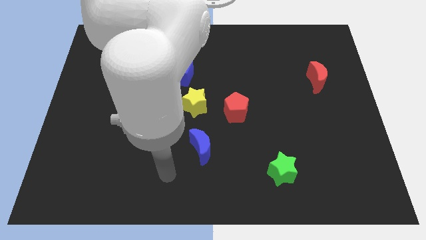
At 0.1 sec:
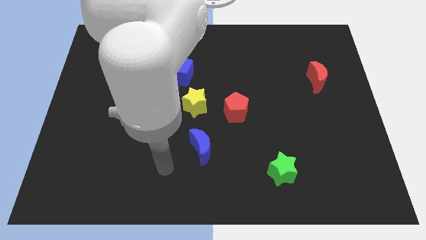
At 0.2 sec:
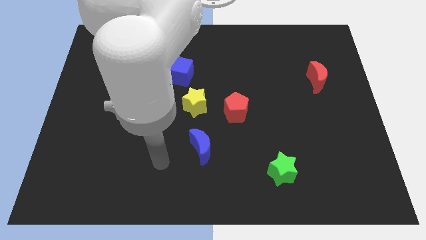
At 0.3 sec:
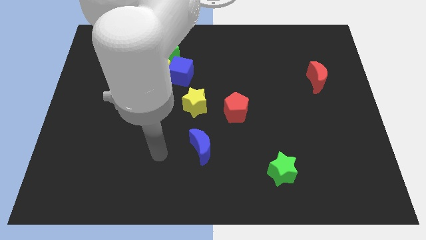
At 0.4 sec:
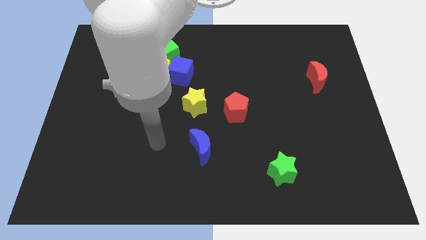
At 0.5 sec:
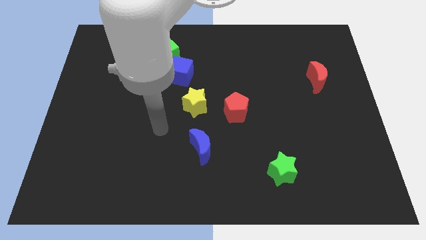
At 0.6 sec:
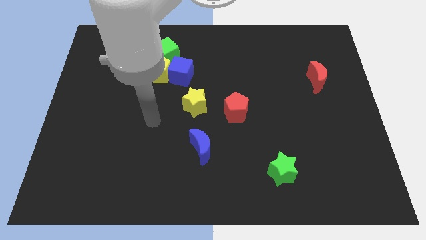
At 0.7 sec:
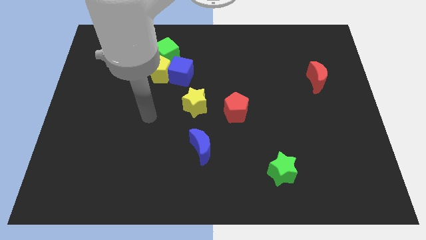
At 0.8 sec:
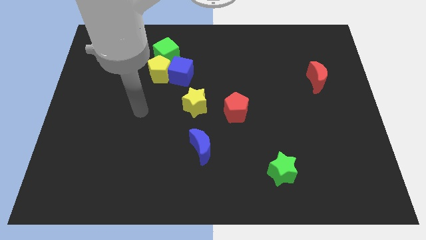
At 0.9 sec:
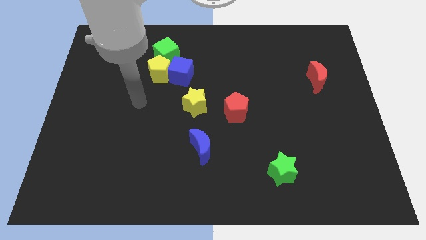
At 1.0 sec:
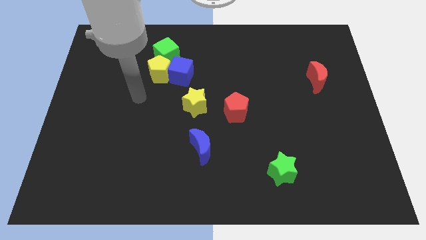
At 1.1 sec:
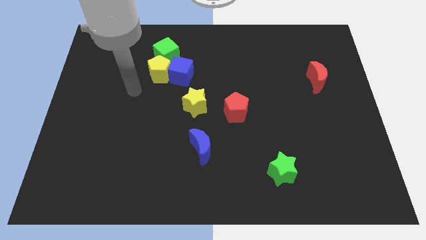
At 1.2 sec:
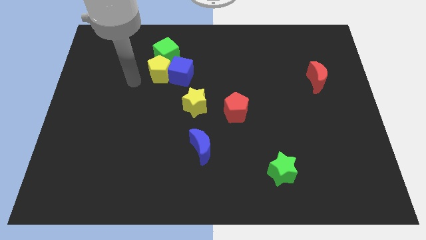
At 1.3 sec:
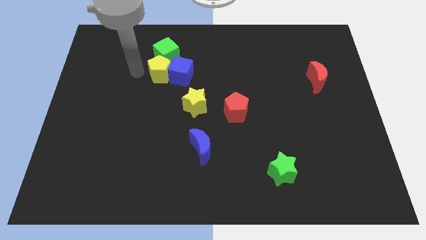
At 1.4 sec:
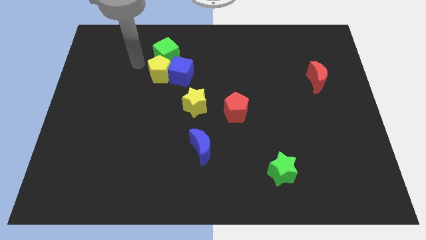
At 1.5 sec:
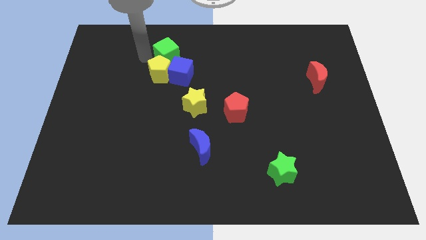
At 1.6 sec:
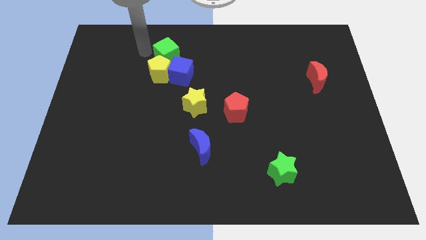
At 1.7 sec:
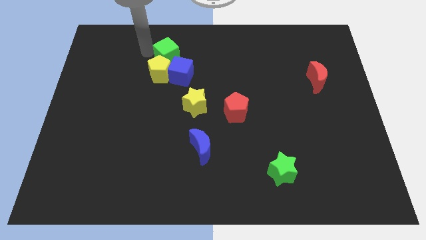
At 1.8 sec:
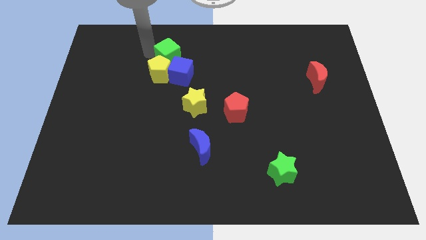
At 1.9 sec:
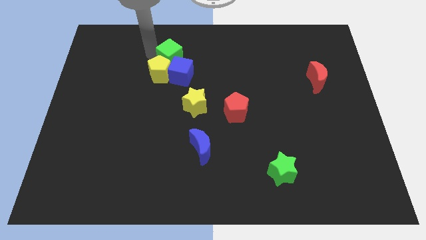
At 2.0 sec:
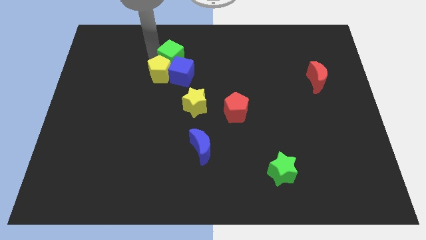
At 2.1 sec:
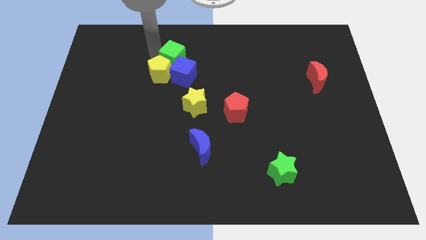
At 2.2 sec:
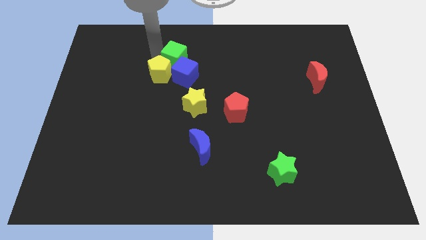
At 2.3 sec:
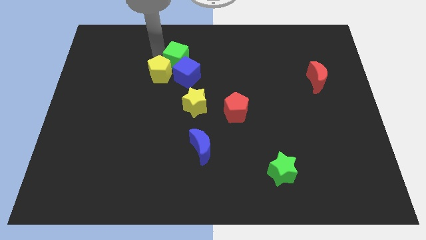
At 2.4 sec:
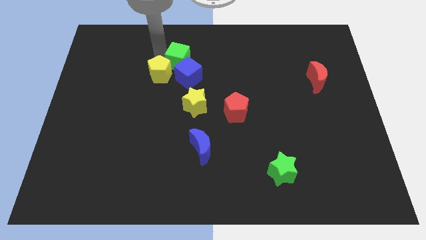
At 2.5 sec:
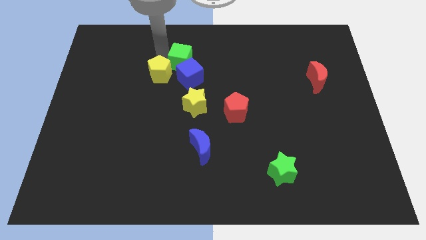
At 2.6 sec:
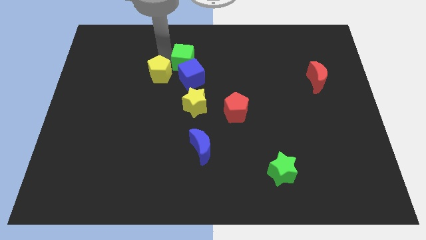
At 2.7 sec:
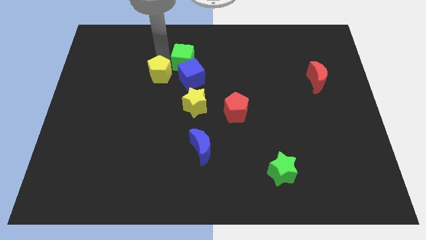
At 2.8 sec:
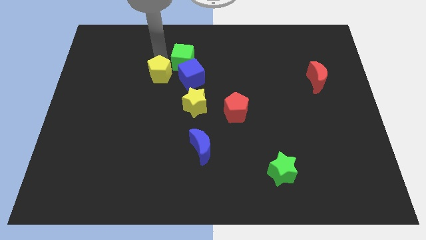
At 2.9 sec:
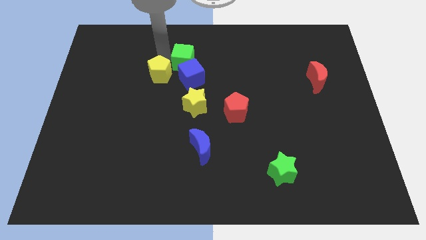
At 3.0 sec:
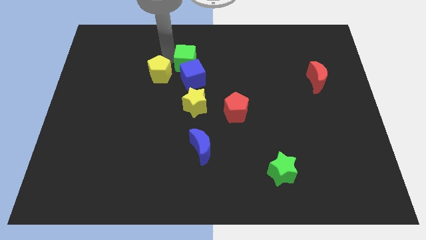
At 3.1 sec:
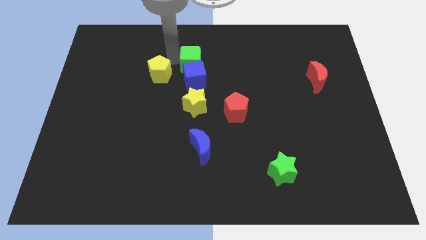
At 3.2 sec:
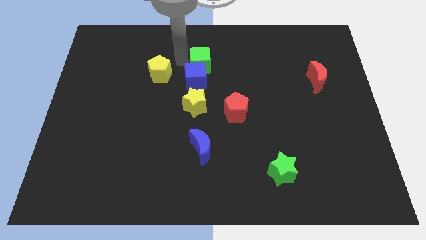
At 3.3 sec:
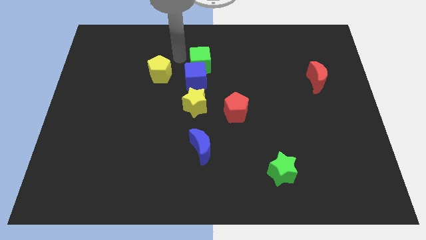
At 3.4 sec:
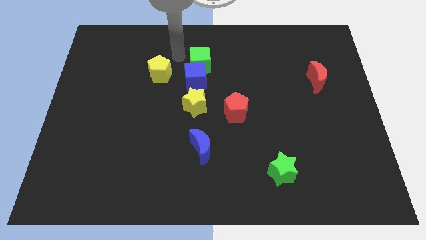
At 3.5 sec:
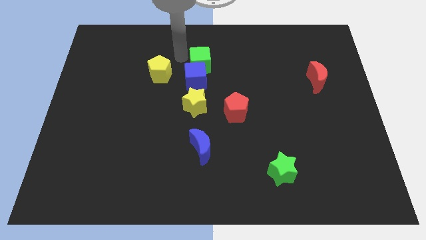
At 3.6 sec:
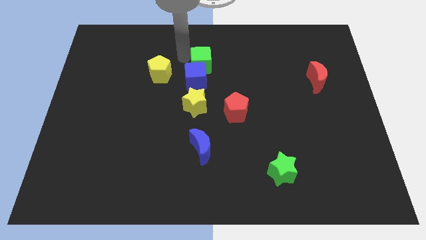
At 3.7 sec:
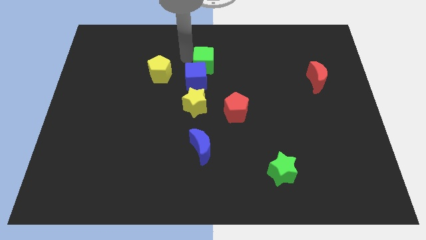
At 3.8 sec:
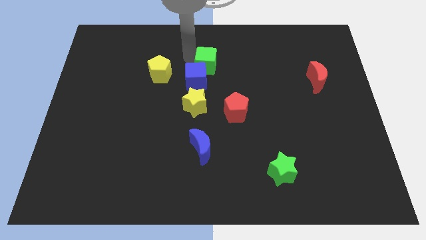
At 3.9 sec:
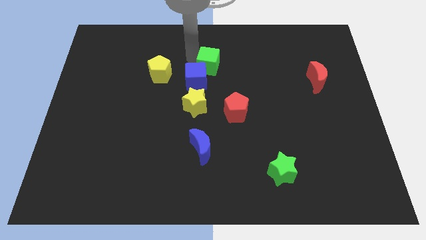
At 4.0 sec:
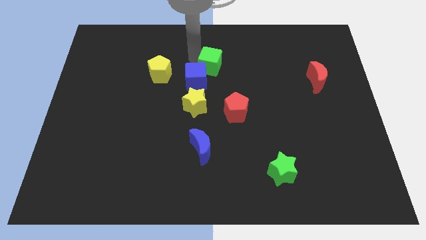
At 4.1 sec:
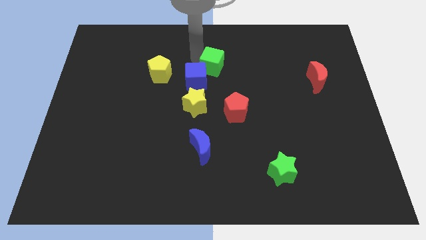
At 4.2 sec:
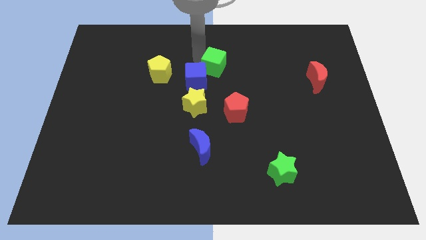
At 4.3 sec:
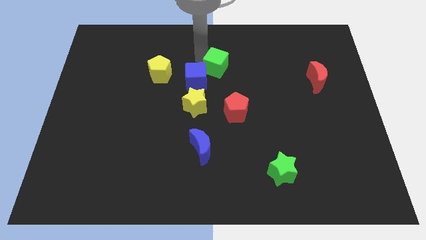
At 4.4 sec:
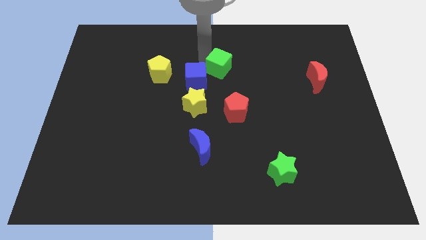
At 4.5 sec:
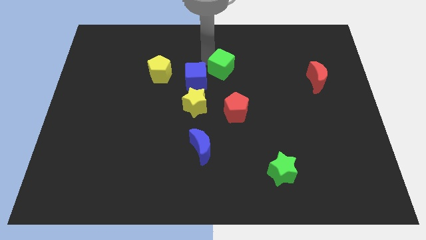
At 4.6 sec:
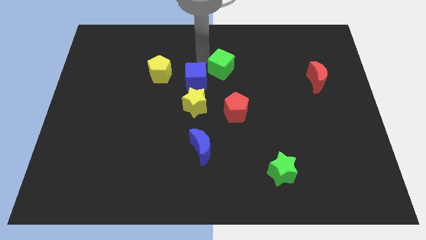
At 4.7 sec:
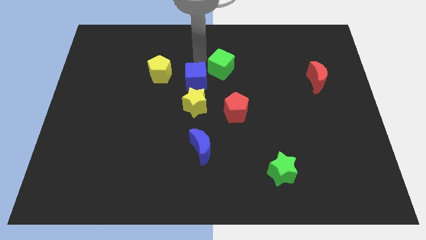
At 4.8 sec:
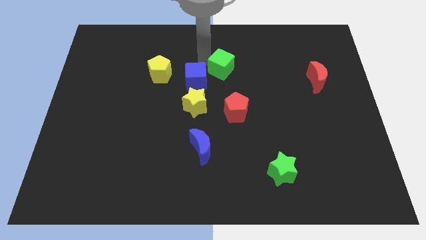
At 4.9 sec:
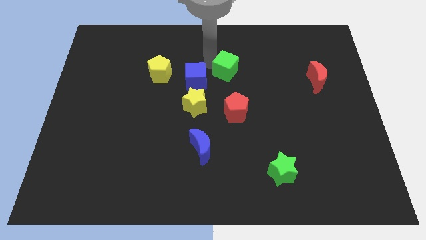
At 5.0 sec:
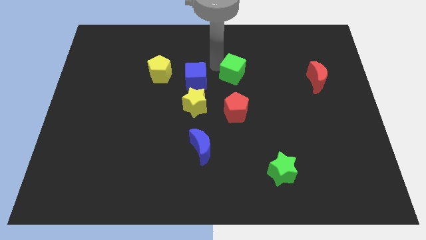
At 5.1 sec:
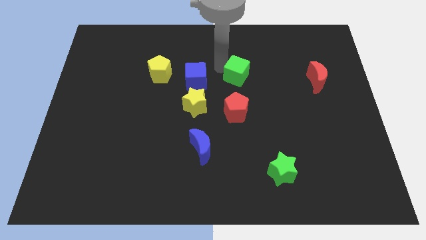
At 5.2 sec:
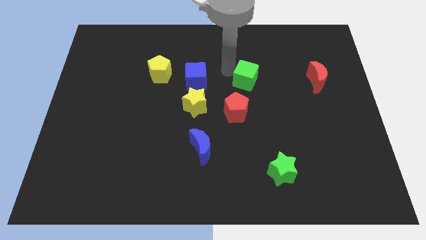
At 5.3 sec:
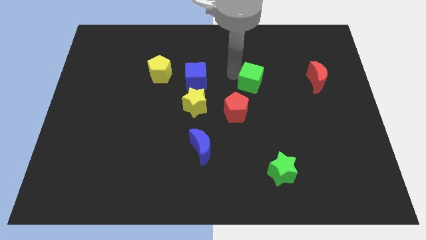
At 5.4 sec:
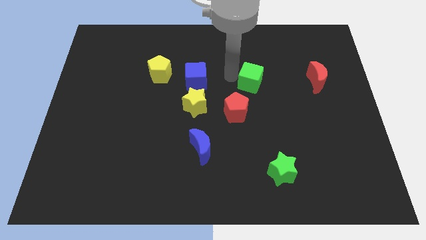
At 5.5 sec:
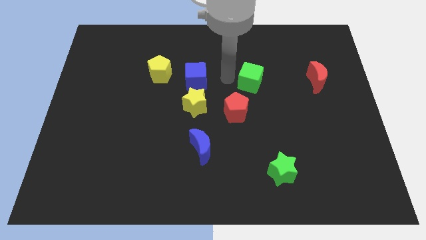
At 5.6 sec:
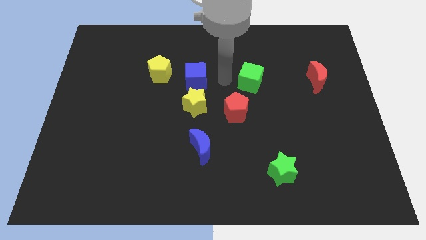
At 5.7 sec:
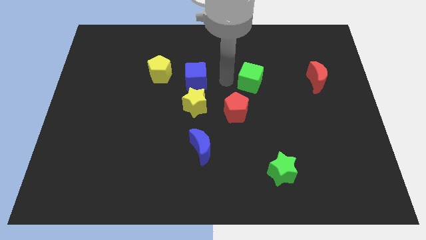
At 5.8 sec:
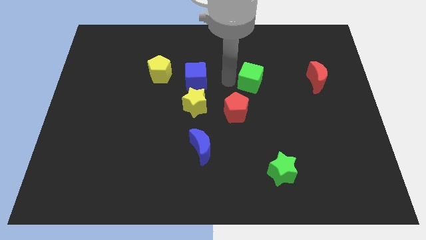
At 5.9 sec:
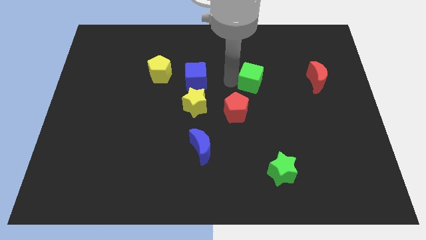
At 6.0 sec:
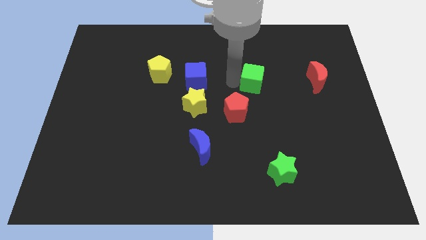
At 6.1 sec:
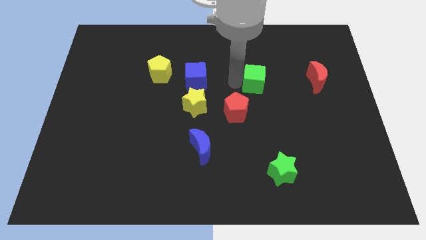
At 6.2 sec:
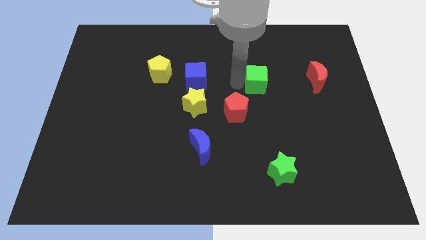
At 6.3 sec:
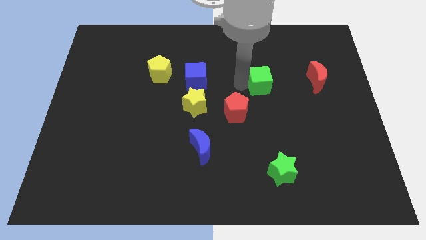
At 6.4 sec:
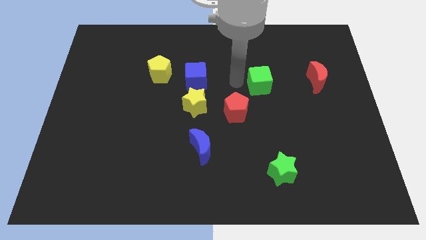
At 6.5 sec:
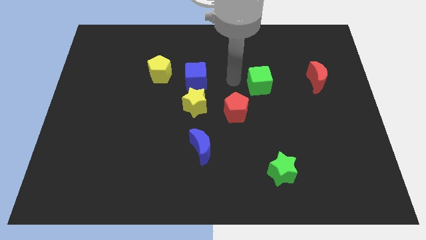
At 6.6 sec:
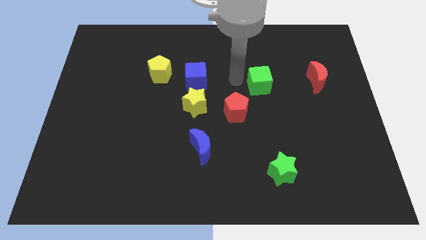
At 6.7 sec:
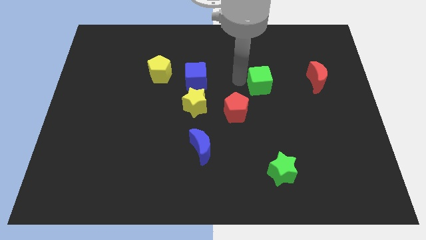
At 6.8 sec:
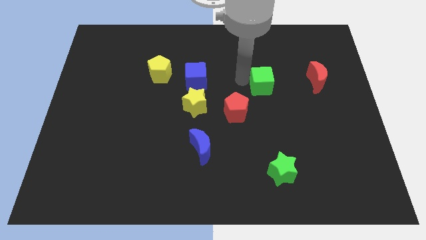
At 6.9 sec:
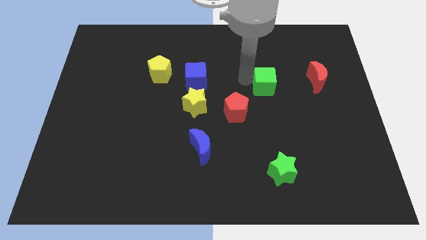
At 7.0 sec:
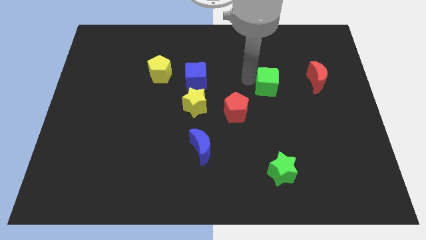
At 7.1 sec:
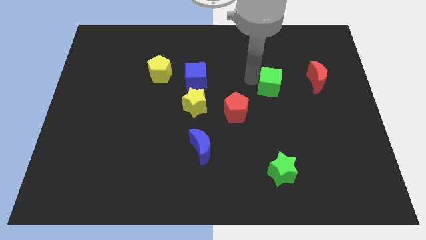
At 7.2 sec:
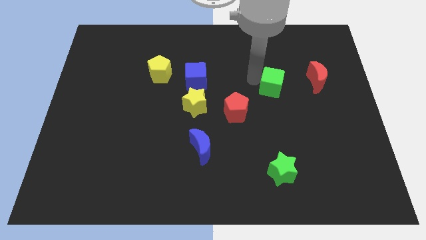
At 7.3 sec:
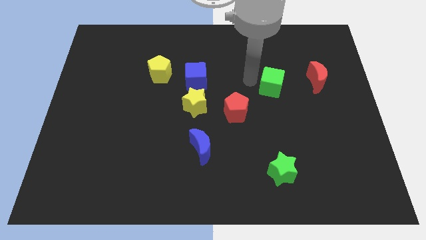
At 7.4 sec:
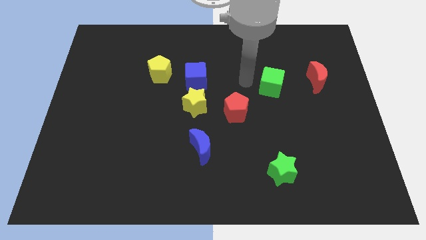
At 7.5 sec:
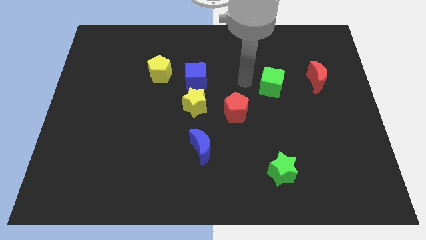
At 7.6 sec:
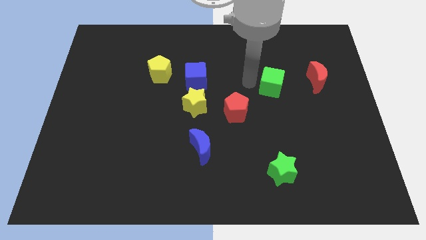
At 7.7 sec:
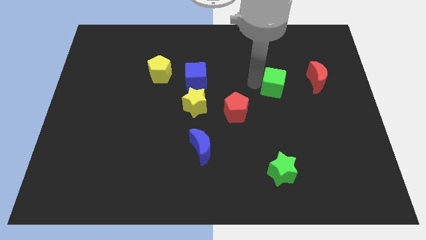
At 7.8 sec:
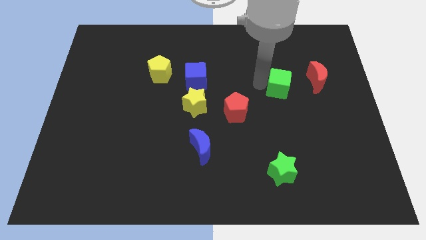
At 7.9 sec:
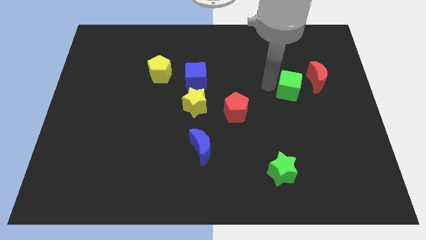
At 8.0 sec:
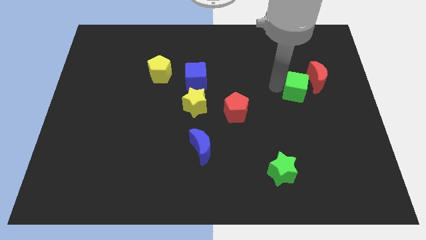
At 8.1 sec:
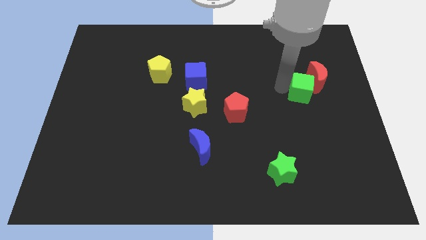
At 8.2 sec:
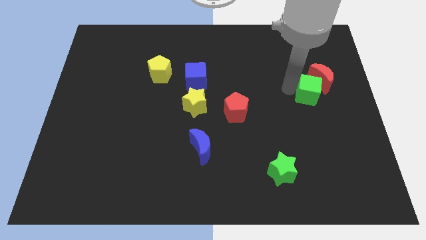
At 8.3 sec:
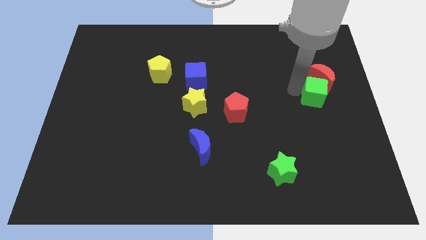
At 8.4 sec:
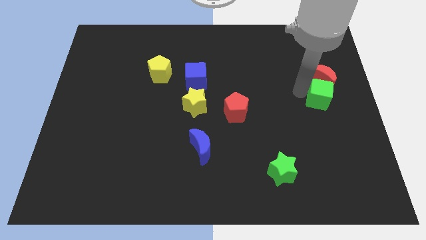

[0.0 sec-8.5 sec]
push the green cube to the center right
